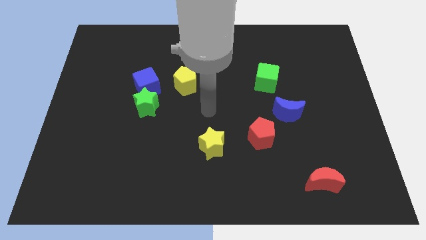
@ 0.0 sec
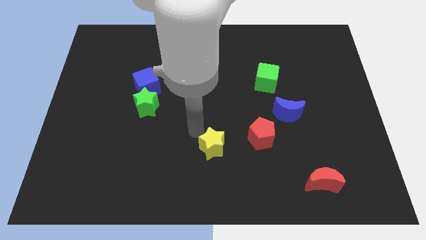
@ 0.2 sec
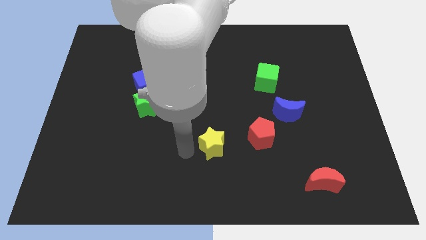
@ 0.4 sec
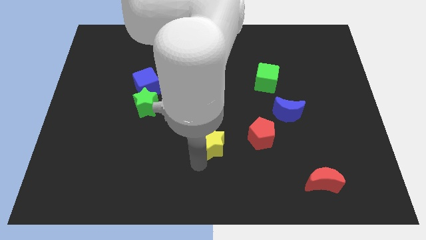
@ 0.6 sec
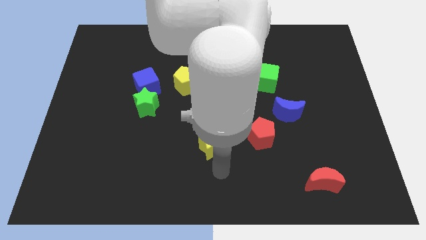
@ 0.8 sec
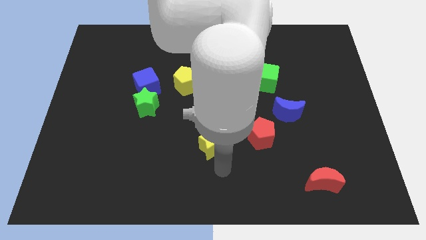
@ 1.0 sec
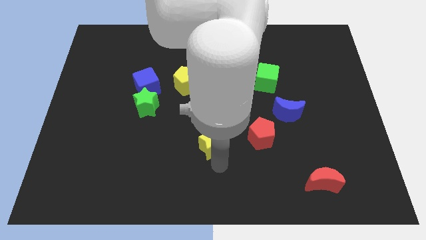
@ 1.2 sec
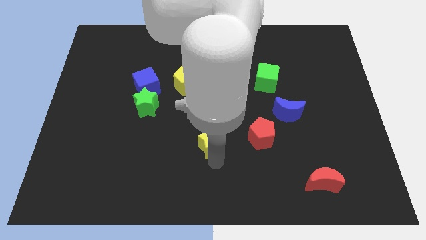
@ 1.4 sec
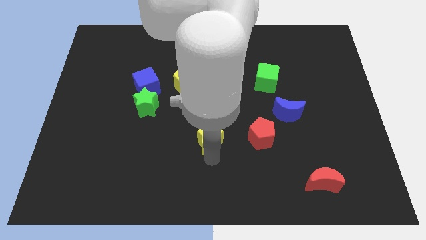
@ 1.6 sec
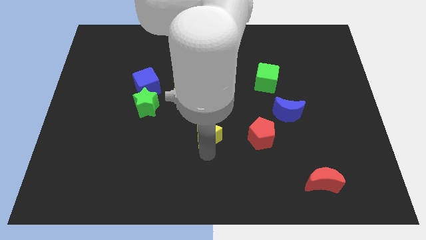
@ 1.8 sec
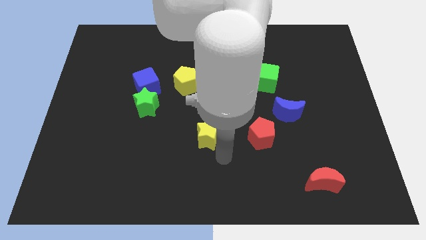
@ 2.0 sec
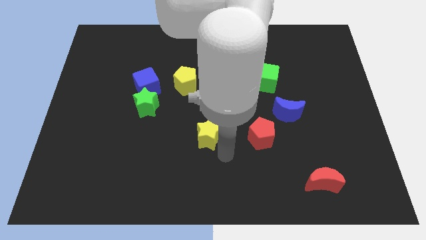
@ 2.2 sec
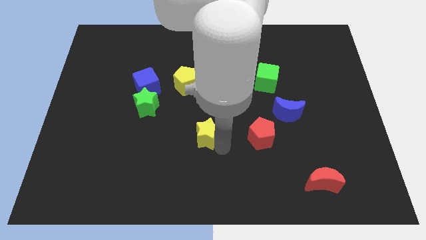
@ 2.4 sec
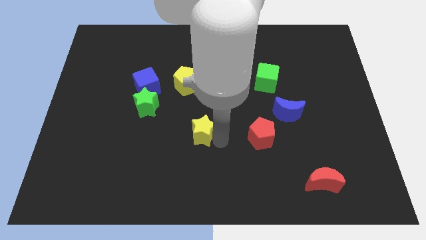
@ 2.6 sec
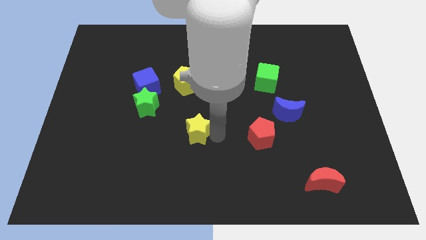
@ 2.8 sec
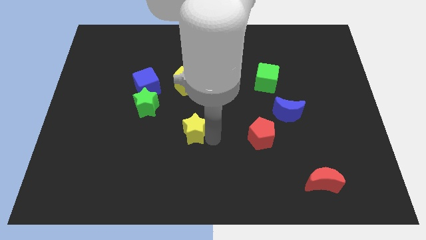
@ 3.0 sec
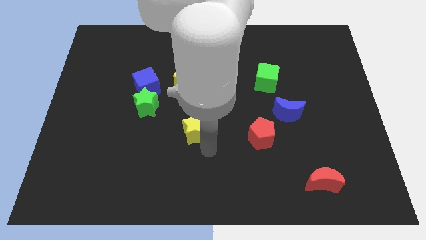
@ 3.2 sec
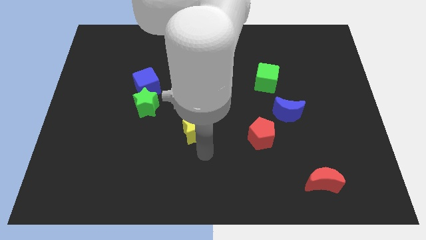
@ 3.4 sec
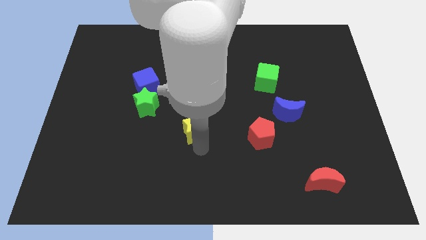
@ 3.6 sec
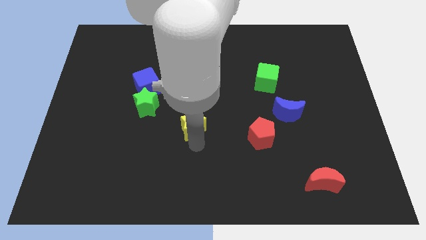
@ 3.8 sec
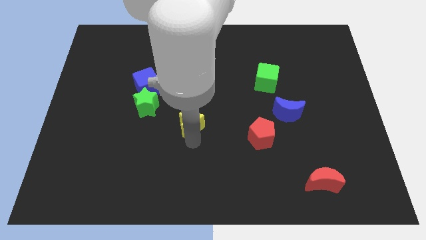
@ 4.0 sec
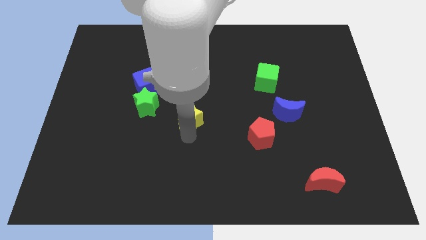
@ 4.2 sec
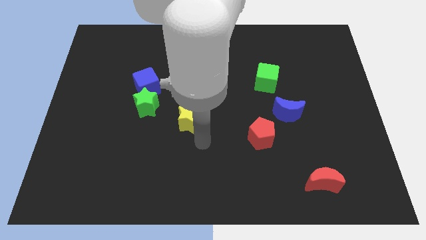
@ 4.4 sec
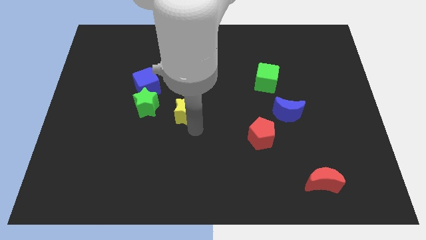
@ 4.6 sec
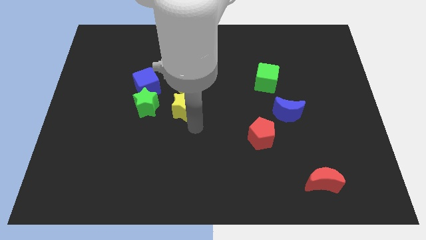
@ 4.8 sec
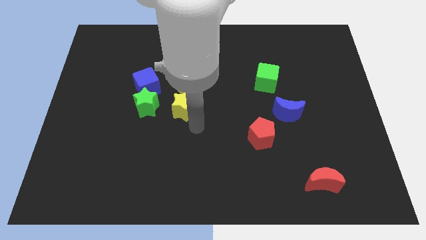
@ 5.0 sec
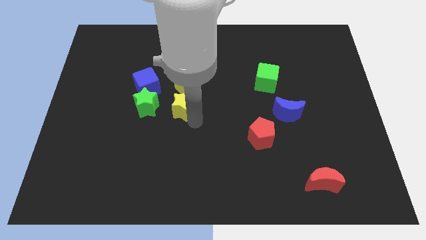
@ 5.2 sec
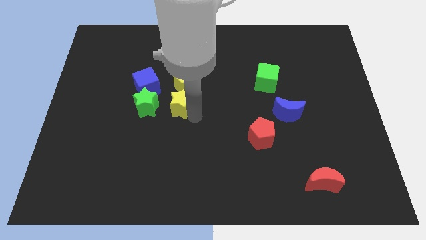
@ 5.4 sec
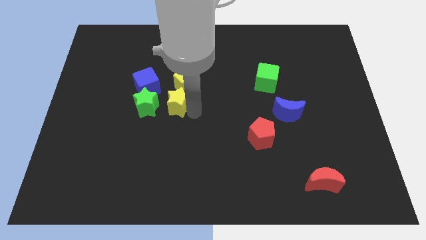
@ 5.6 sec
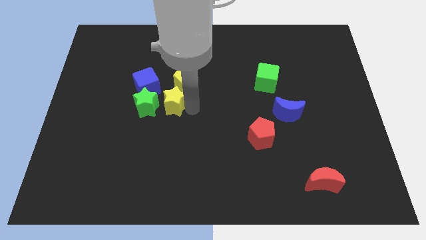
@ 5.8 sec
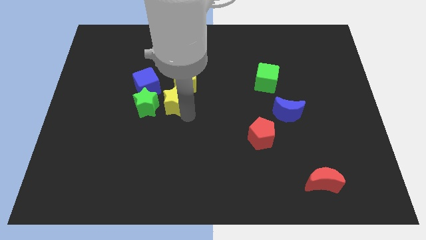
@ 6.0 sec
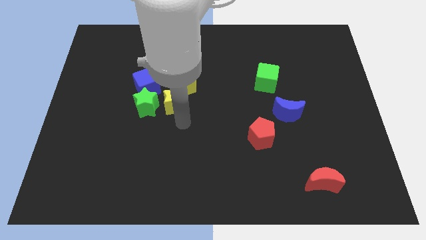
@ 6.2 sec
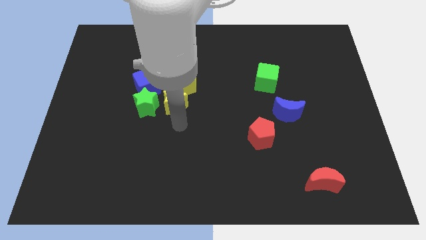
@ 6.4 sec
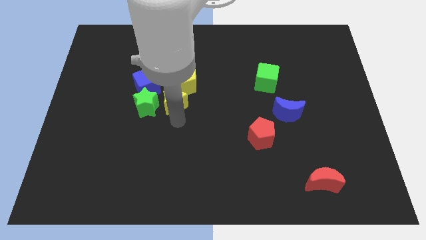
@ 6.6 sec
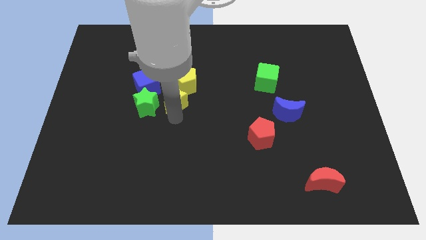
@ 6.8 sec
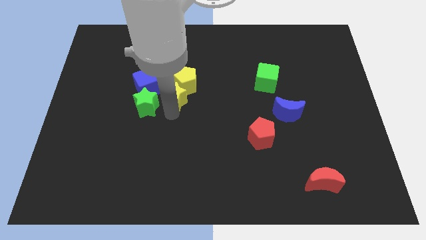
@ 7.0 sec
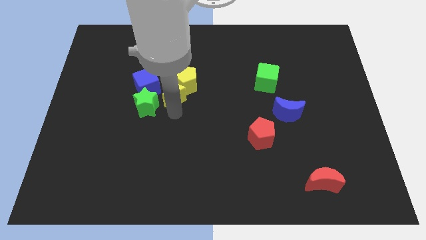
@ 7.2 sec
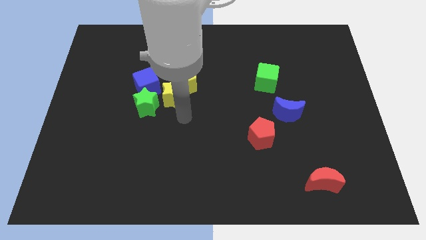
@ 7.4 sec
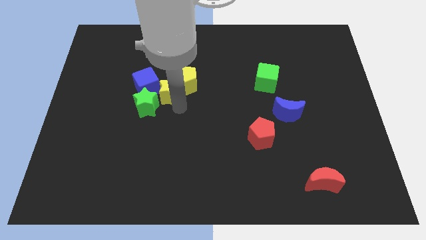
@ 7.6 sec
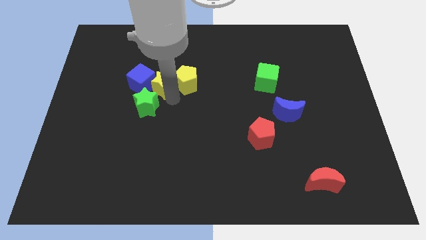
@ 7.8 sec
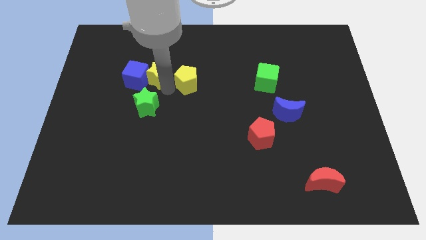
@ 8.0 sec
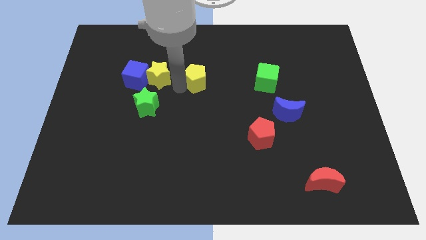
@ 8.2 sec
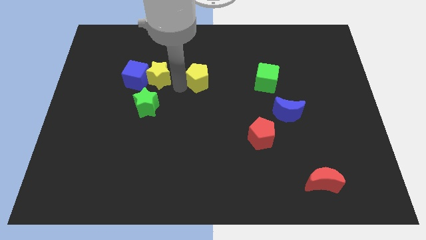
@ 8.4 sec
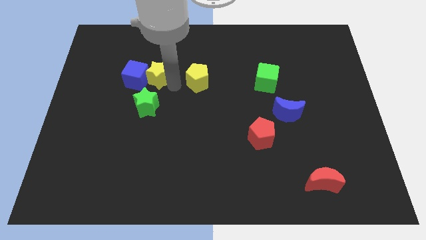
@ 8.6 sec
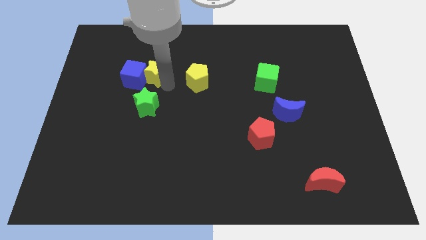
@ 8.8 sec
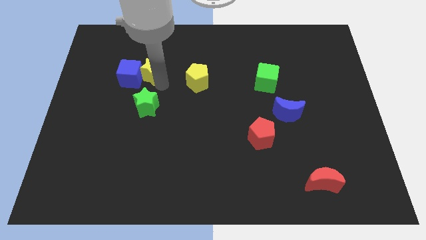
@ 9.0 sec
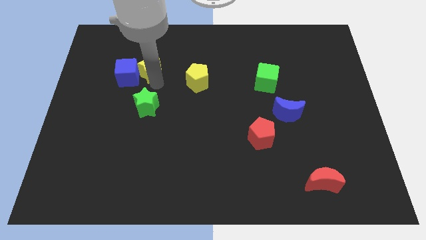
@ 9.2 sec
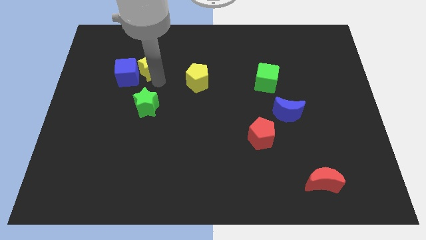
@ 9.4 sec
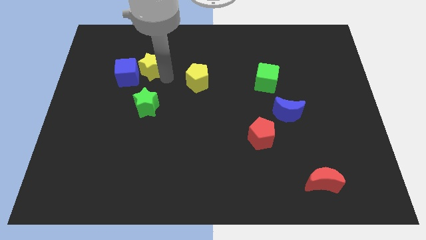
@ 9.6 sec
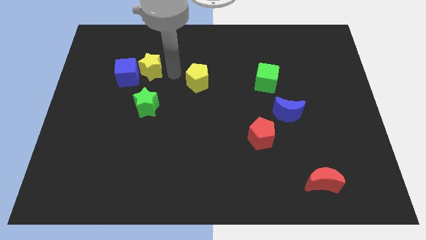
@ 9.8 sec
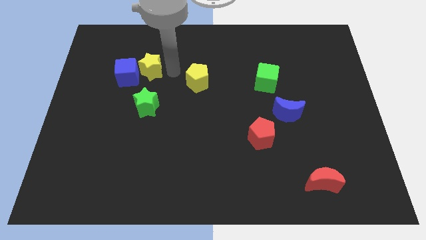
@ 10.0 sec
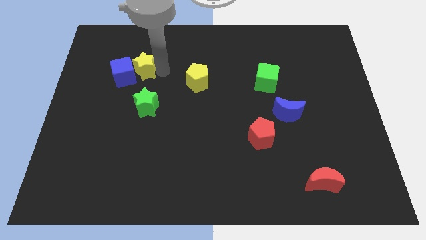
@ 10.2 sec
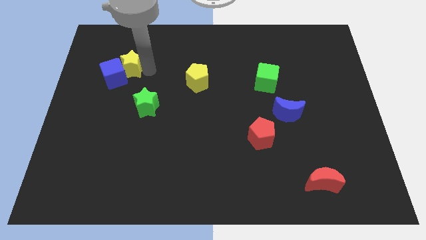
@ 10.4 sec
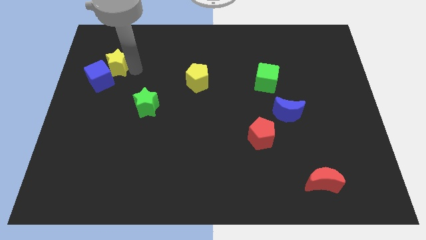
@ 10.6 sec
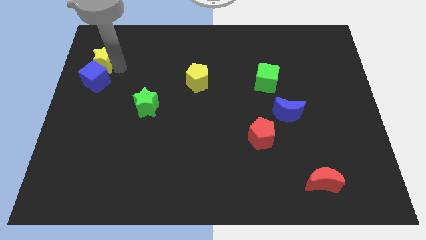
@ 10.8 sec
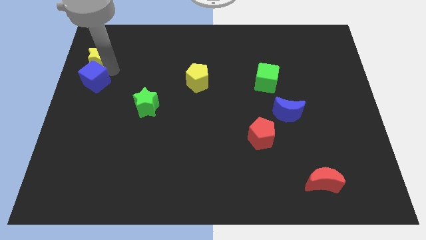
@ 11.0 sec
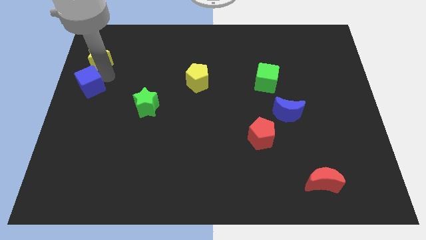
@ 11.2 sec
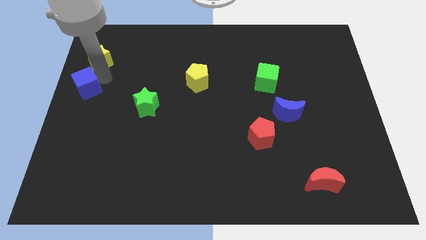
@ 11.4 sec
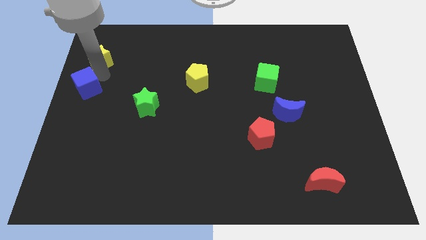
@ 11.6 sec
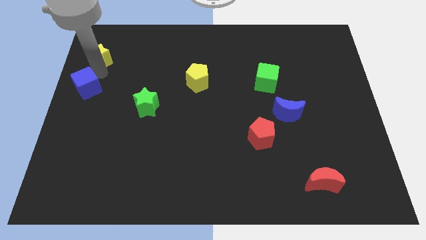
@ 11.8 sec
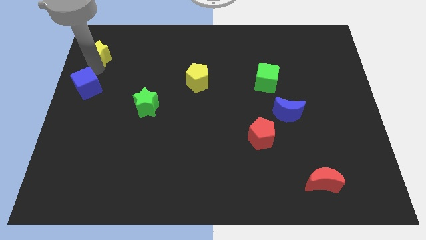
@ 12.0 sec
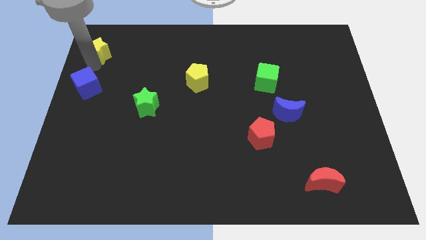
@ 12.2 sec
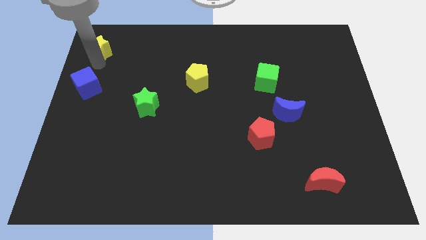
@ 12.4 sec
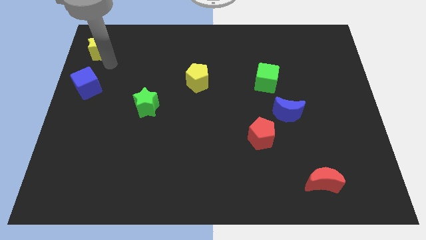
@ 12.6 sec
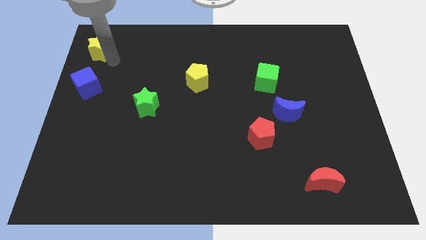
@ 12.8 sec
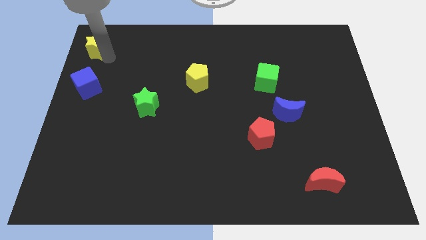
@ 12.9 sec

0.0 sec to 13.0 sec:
push the yellow star to the top left corner
